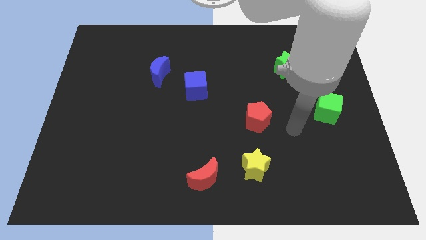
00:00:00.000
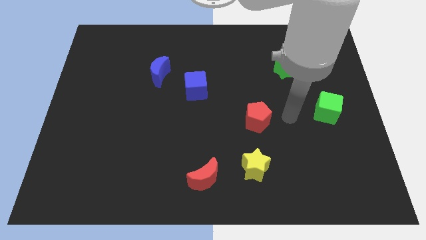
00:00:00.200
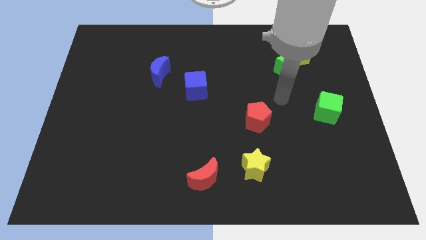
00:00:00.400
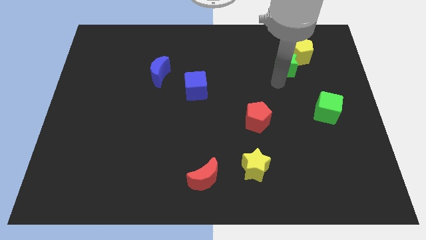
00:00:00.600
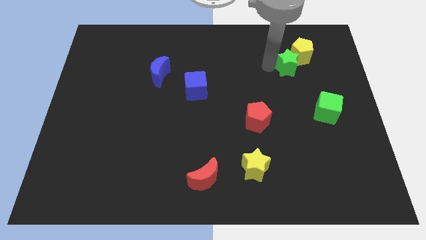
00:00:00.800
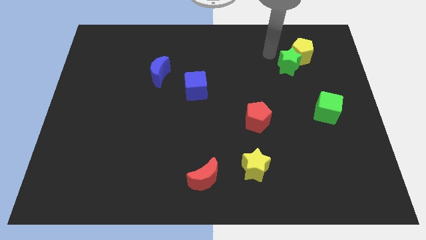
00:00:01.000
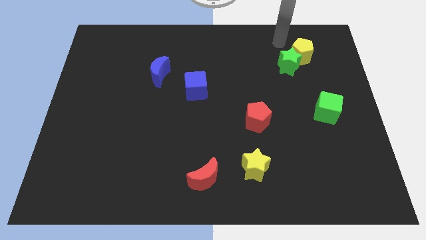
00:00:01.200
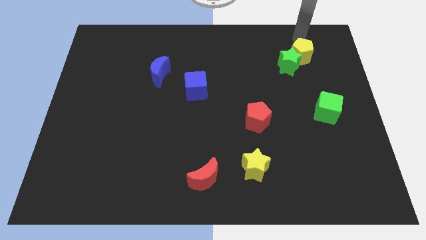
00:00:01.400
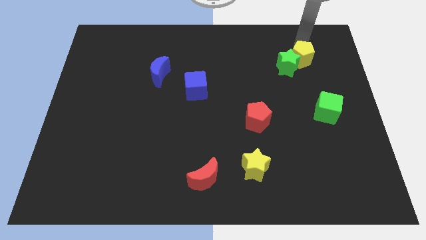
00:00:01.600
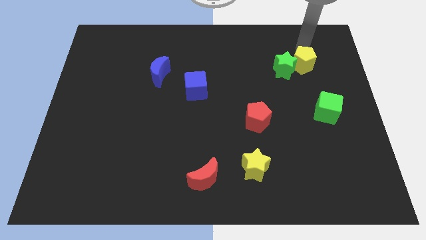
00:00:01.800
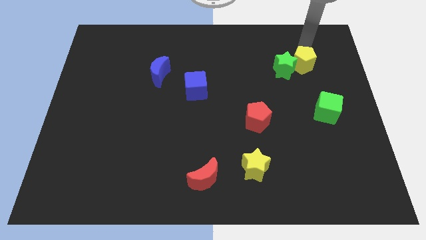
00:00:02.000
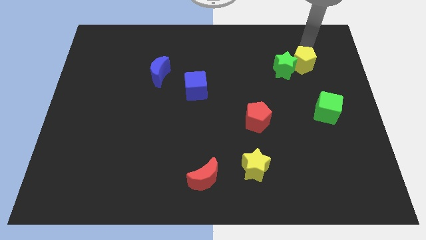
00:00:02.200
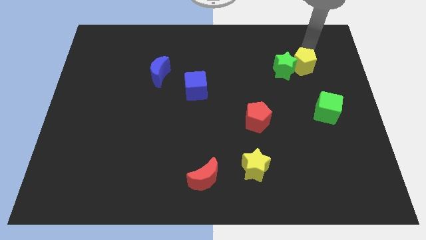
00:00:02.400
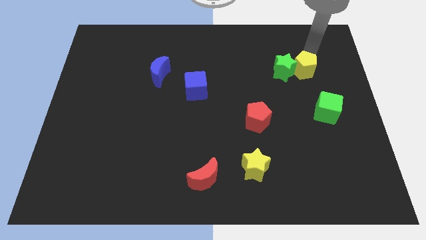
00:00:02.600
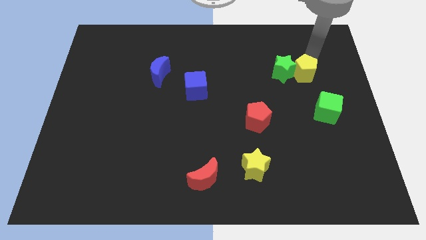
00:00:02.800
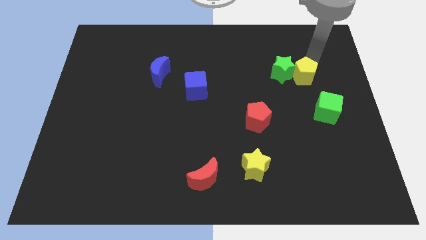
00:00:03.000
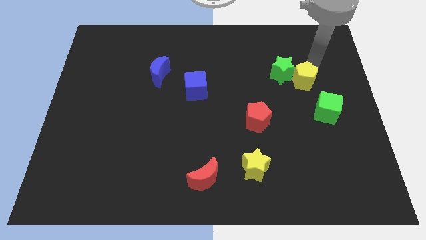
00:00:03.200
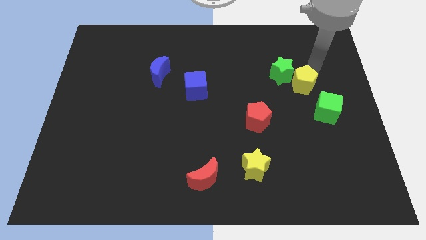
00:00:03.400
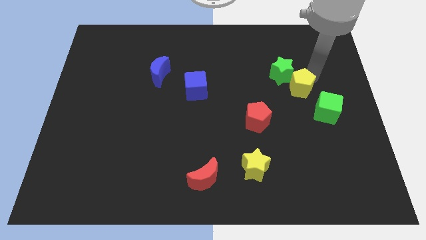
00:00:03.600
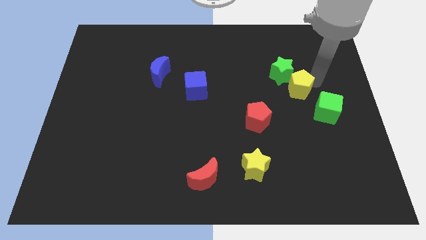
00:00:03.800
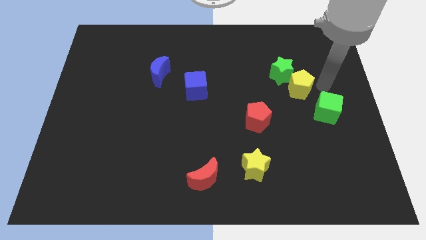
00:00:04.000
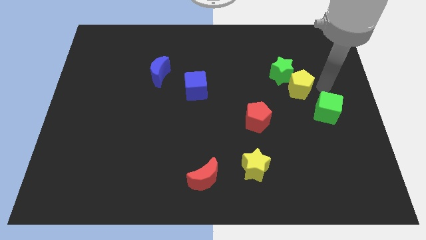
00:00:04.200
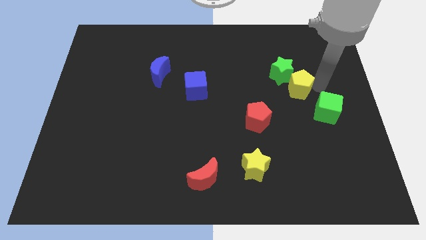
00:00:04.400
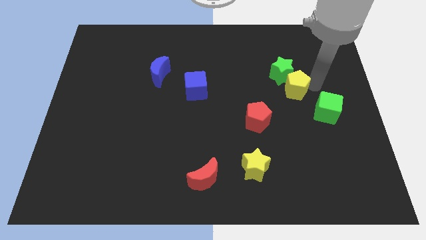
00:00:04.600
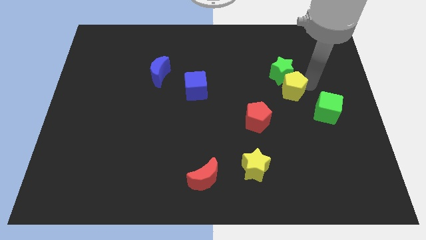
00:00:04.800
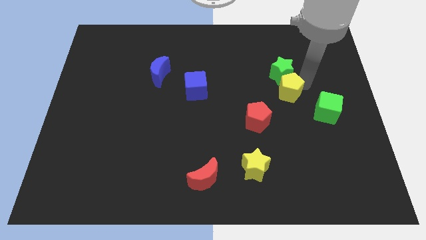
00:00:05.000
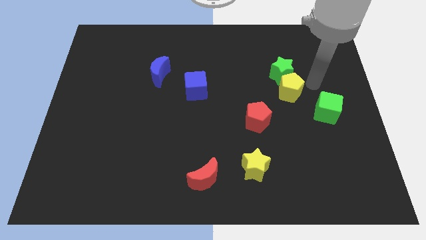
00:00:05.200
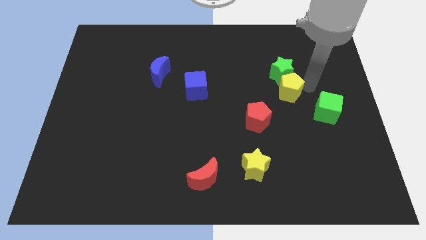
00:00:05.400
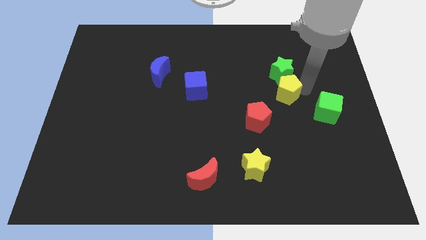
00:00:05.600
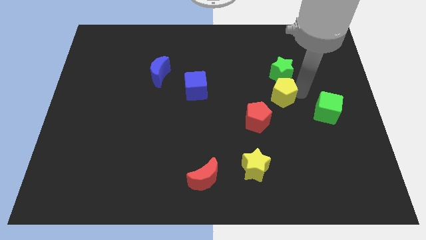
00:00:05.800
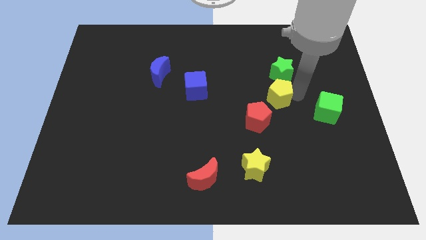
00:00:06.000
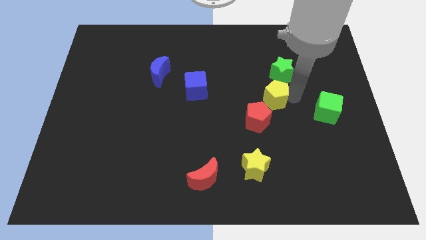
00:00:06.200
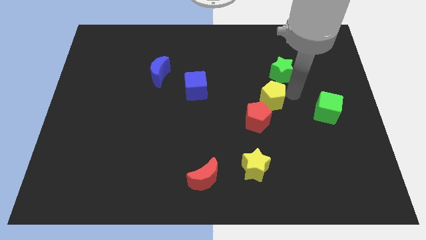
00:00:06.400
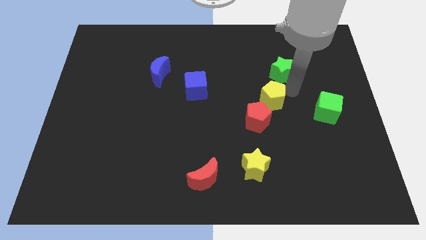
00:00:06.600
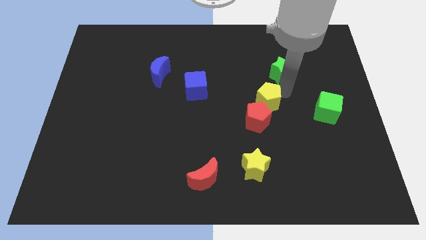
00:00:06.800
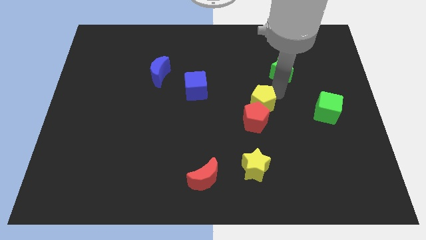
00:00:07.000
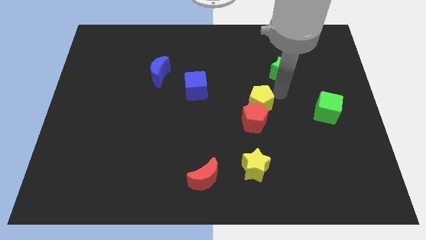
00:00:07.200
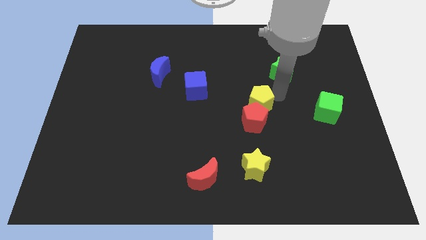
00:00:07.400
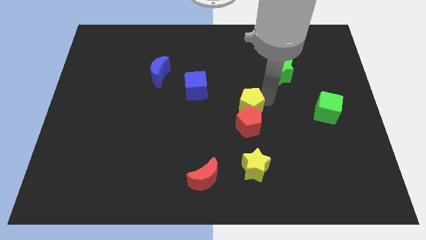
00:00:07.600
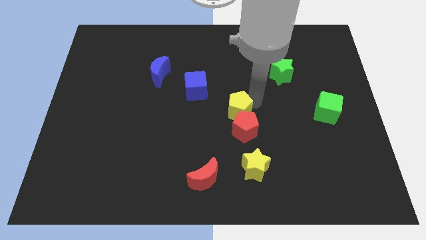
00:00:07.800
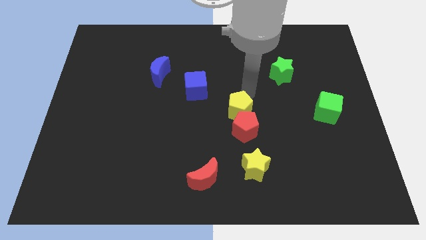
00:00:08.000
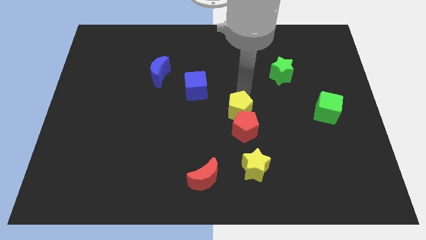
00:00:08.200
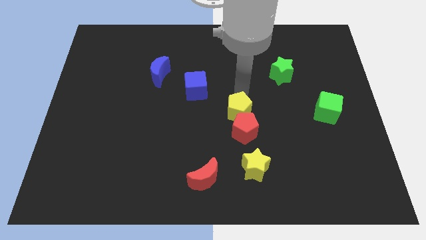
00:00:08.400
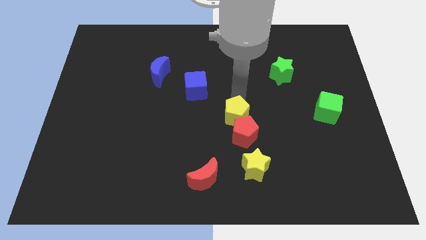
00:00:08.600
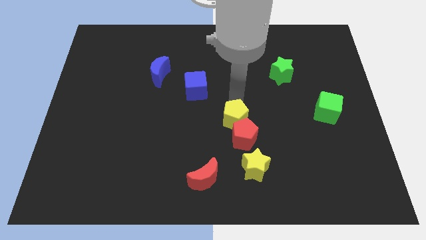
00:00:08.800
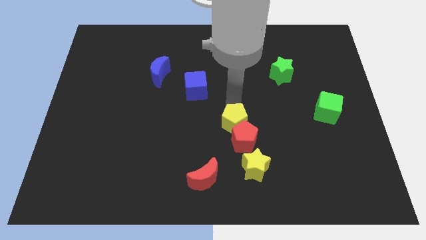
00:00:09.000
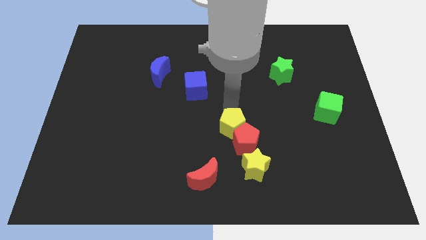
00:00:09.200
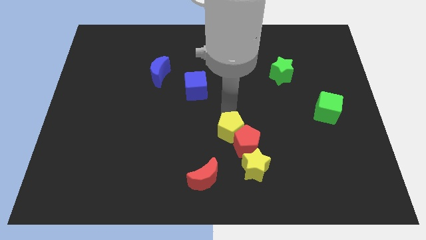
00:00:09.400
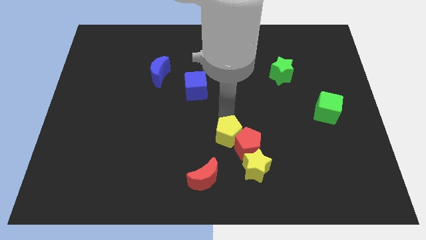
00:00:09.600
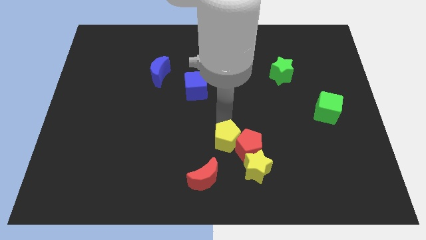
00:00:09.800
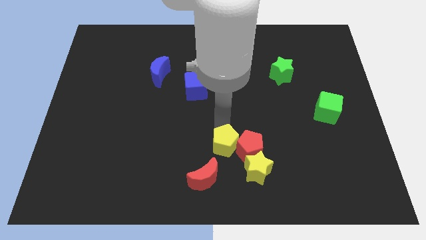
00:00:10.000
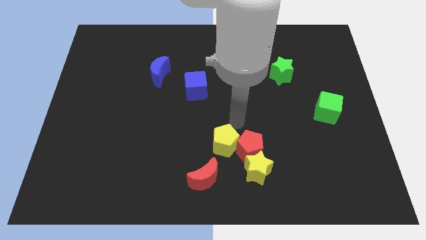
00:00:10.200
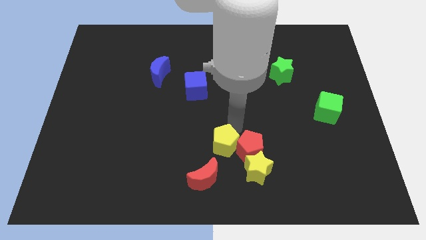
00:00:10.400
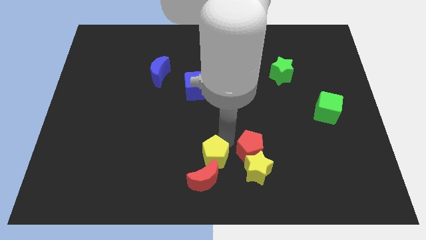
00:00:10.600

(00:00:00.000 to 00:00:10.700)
push the yellow pentagon towards the red moon

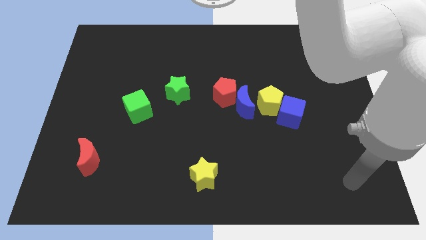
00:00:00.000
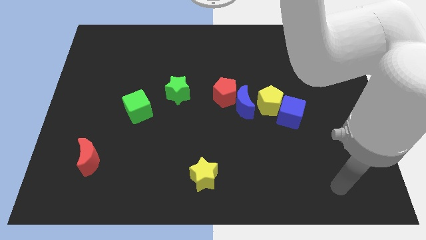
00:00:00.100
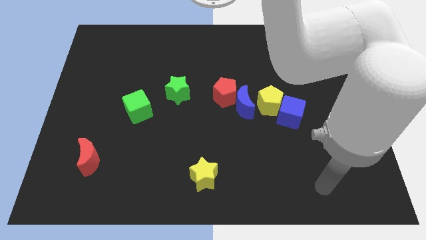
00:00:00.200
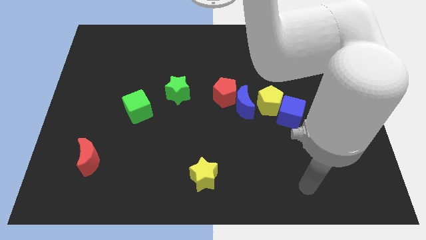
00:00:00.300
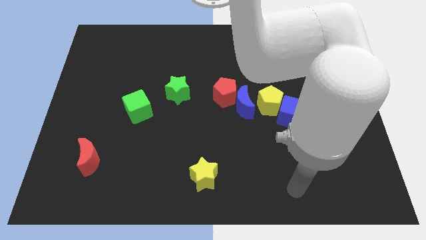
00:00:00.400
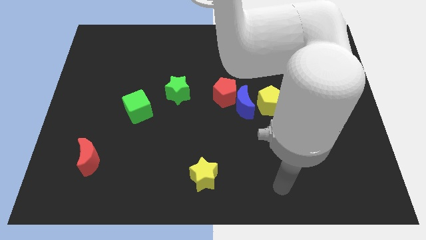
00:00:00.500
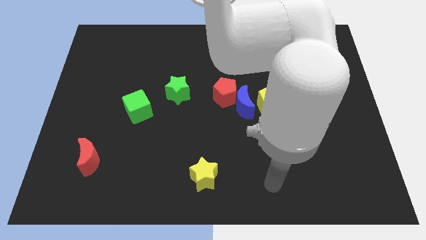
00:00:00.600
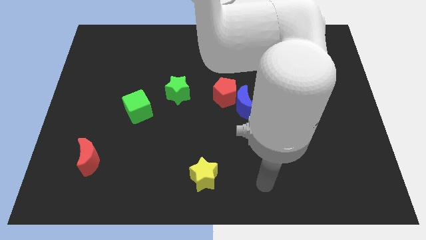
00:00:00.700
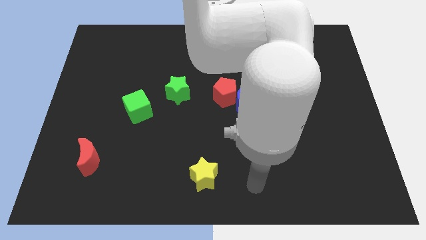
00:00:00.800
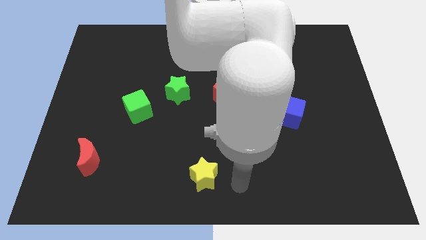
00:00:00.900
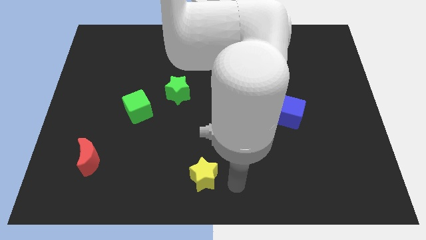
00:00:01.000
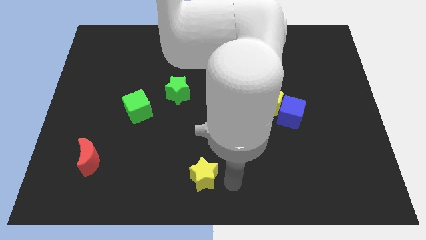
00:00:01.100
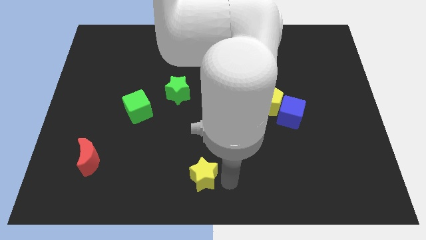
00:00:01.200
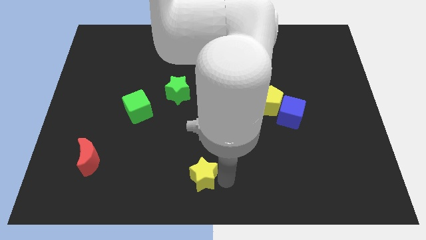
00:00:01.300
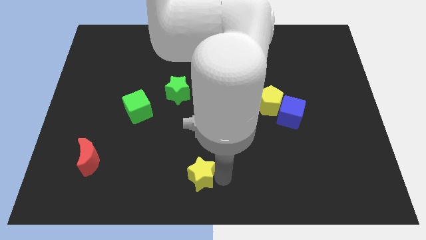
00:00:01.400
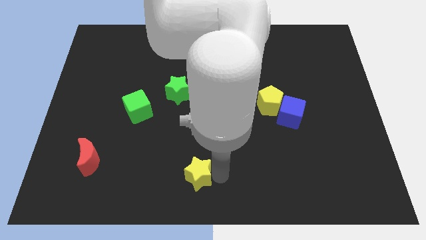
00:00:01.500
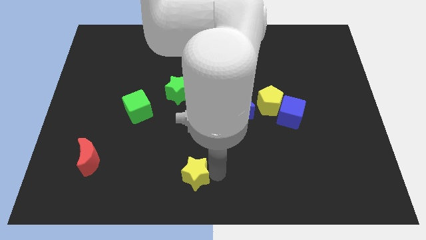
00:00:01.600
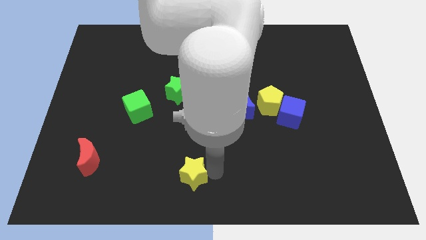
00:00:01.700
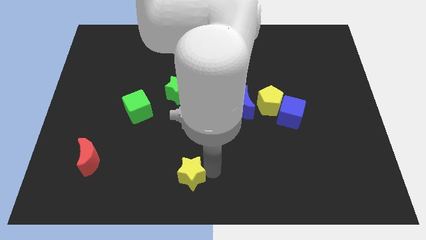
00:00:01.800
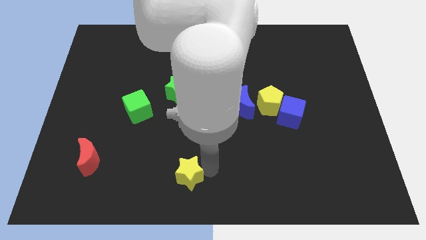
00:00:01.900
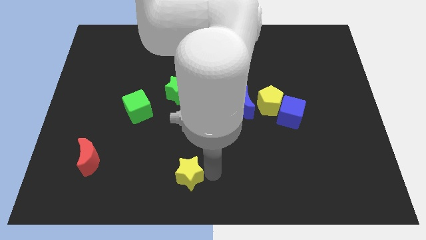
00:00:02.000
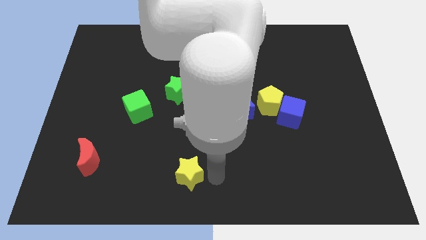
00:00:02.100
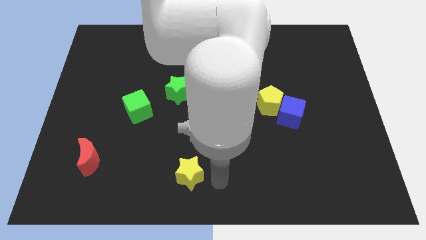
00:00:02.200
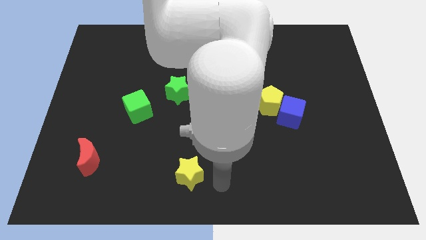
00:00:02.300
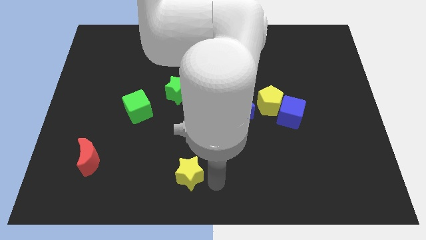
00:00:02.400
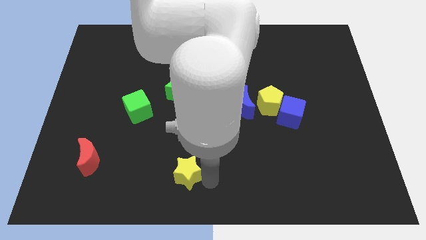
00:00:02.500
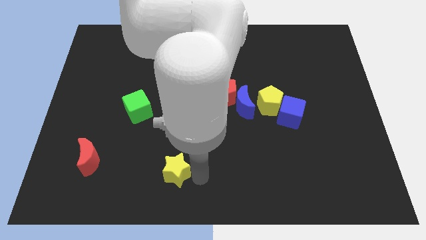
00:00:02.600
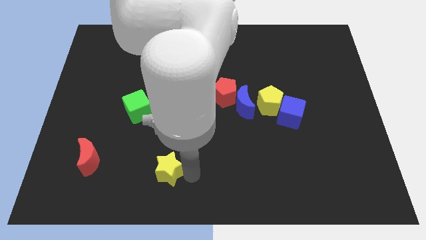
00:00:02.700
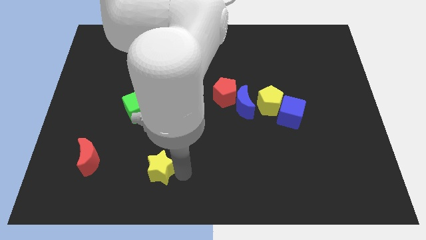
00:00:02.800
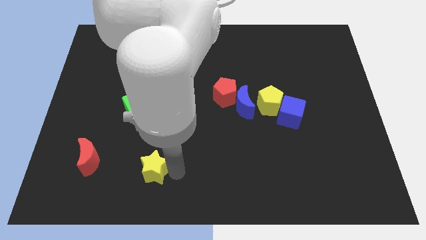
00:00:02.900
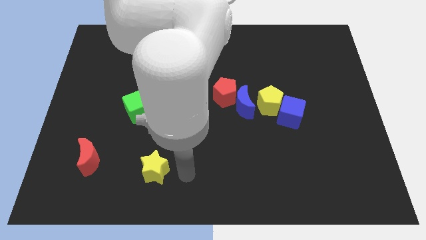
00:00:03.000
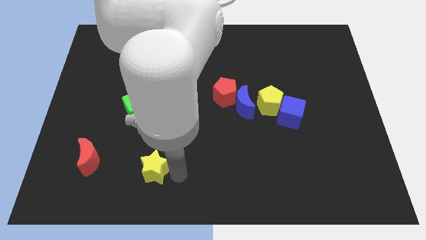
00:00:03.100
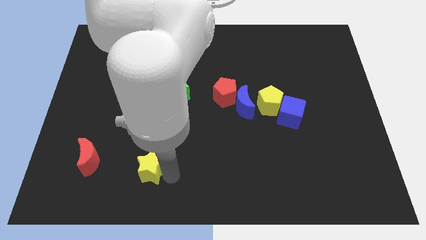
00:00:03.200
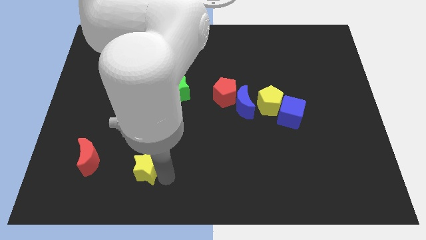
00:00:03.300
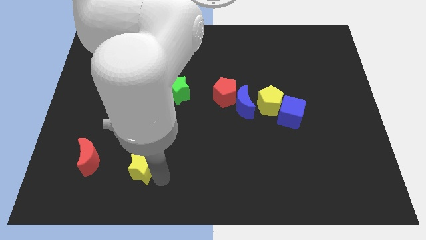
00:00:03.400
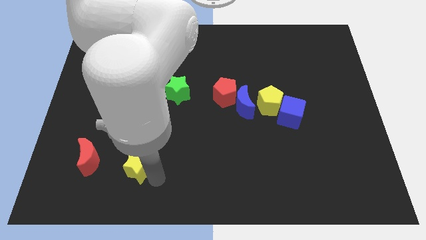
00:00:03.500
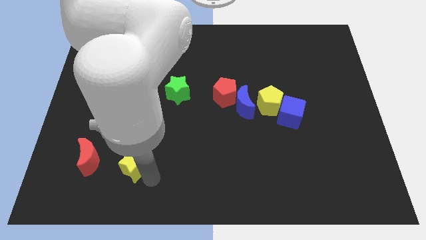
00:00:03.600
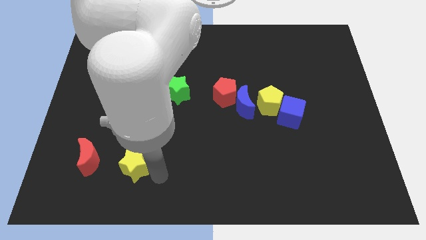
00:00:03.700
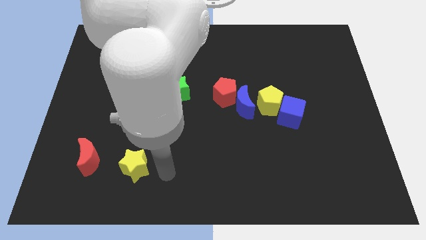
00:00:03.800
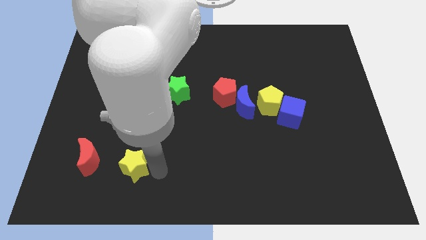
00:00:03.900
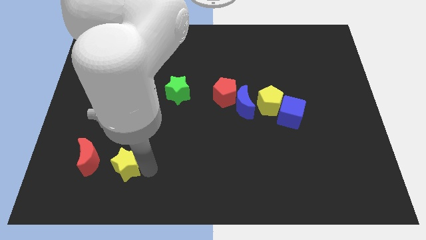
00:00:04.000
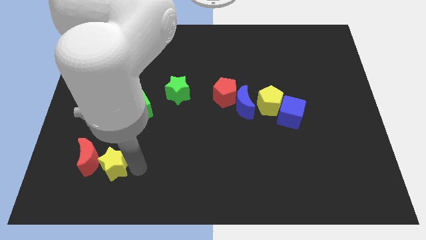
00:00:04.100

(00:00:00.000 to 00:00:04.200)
slide the yellow star towards the red moon
